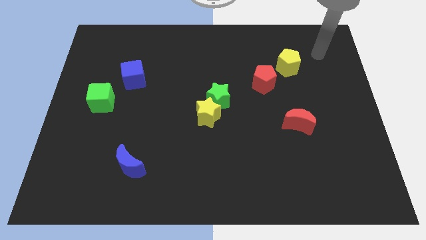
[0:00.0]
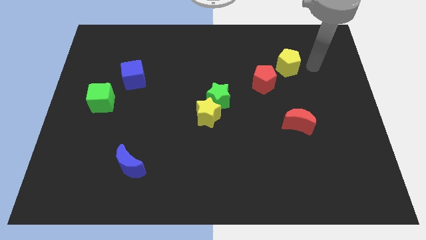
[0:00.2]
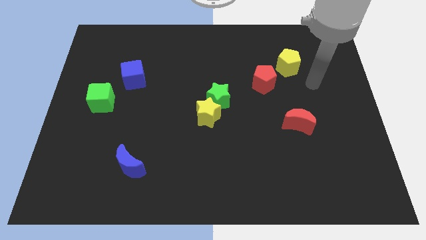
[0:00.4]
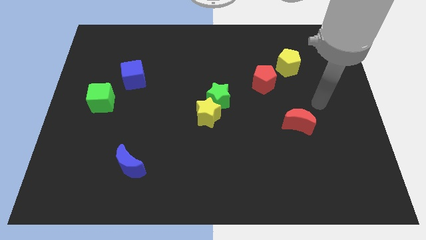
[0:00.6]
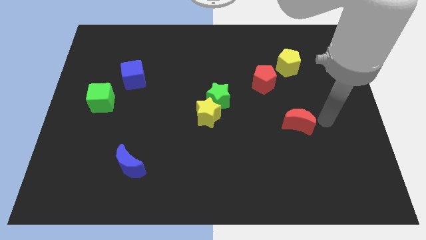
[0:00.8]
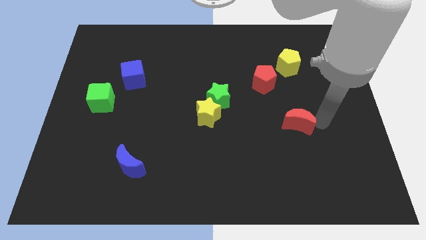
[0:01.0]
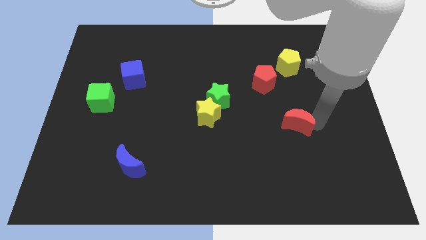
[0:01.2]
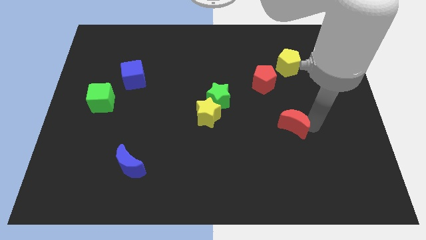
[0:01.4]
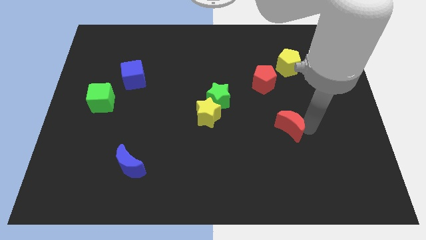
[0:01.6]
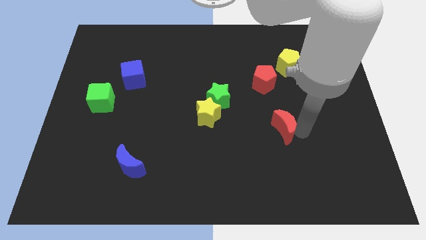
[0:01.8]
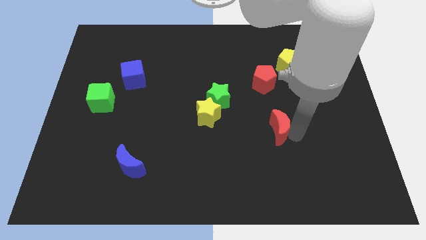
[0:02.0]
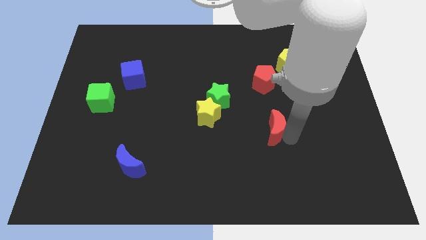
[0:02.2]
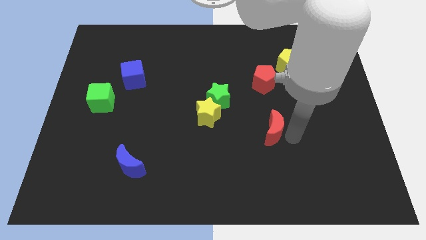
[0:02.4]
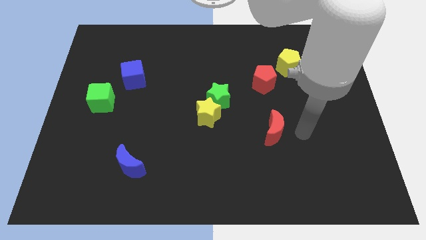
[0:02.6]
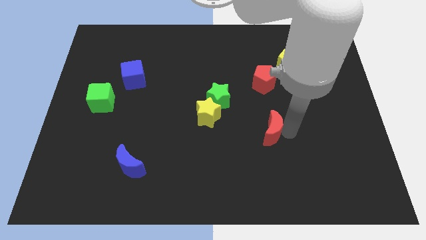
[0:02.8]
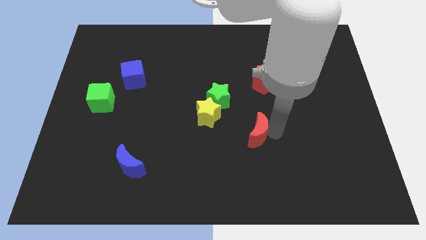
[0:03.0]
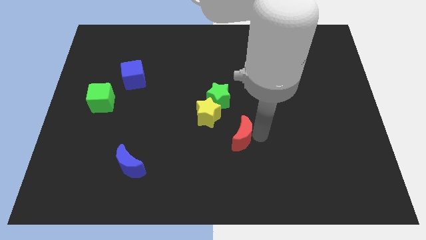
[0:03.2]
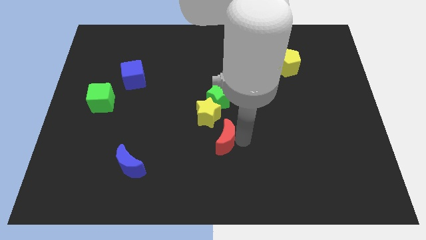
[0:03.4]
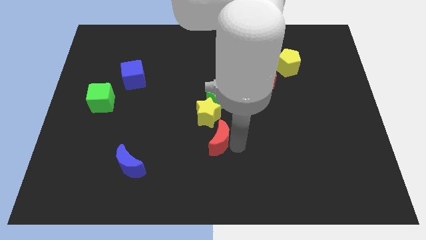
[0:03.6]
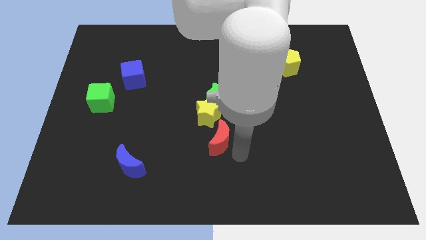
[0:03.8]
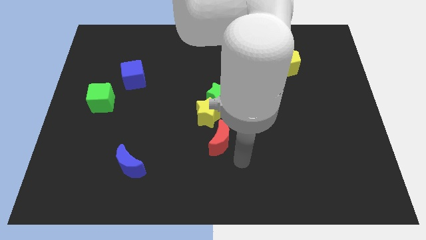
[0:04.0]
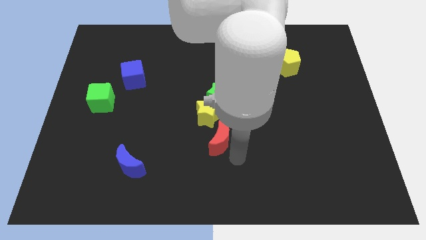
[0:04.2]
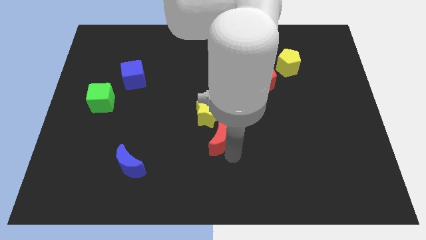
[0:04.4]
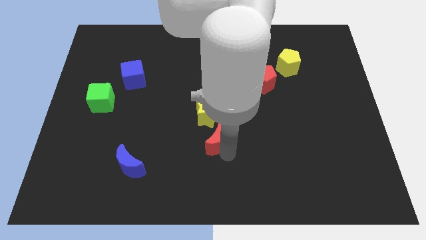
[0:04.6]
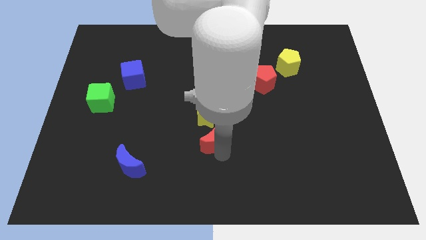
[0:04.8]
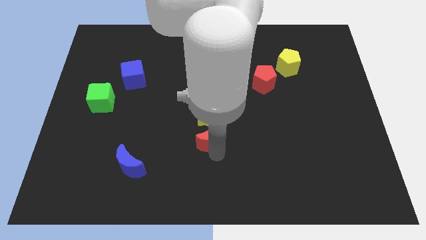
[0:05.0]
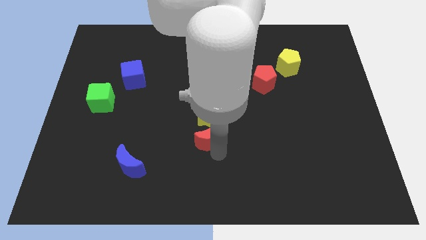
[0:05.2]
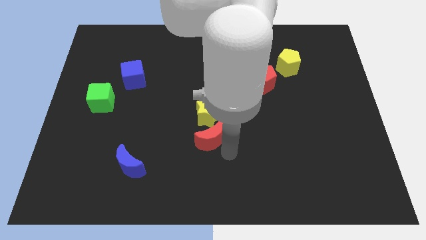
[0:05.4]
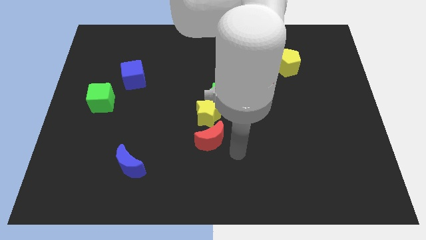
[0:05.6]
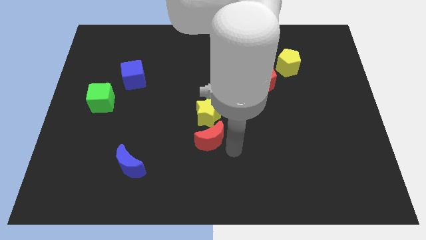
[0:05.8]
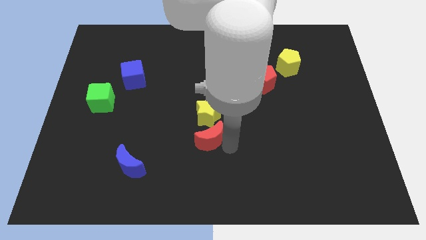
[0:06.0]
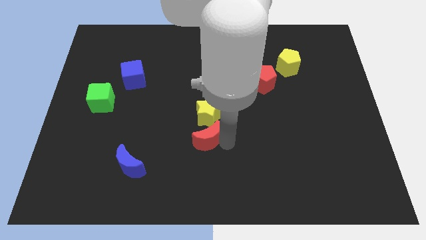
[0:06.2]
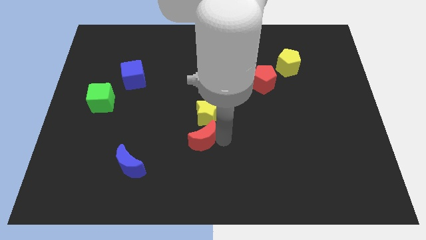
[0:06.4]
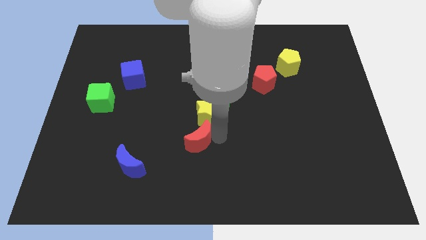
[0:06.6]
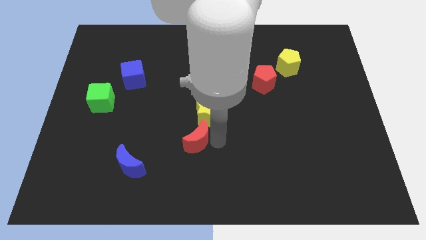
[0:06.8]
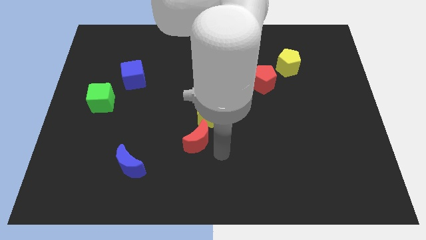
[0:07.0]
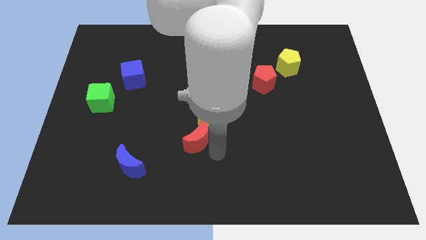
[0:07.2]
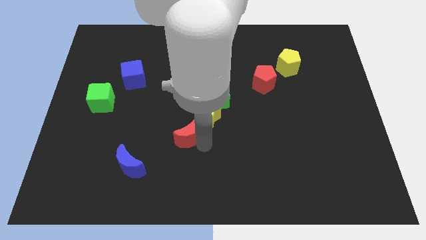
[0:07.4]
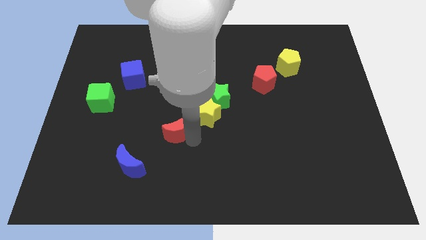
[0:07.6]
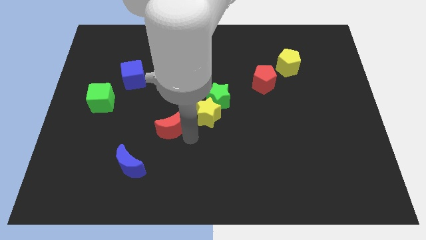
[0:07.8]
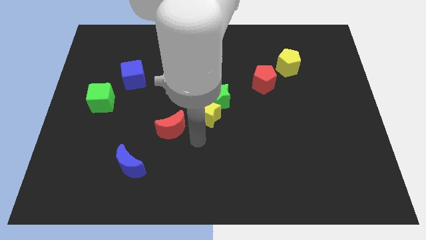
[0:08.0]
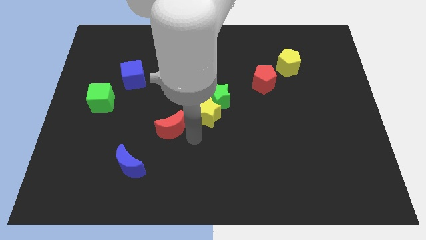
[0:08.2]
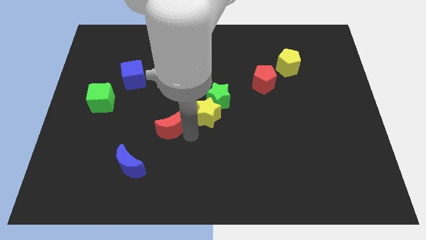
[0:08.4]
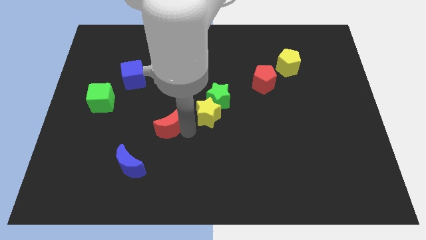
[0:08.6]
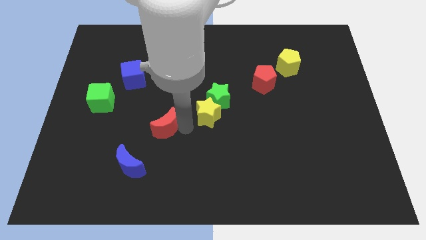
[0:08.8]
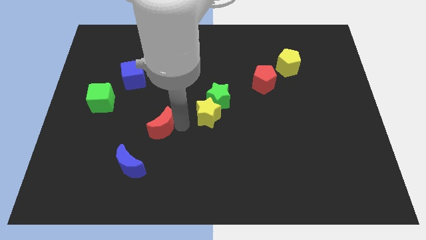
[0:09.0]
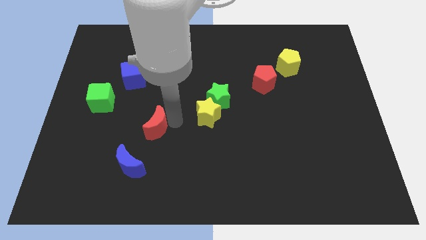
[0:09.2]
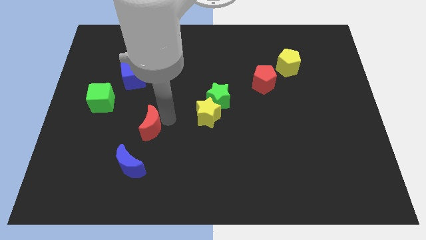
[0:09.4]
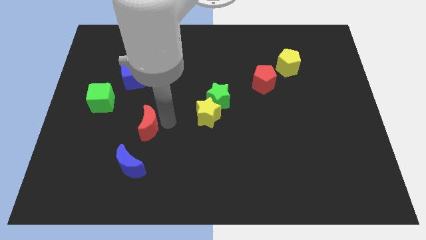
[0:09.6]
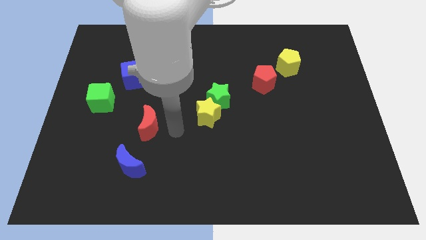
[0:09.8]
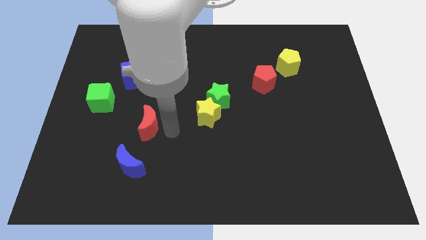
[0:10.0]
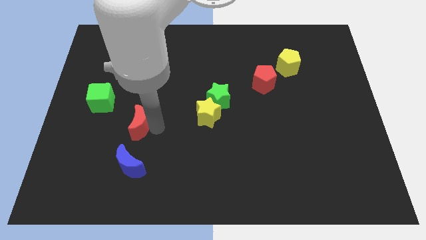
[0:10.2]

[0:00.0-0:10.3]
slide the red moon to the bottom right side of the green cube
